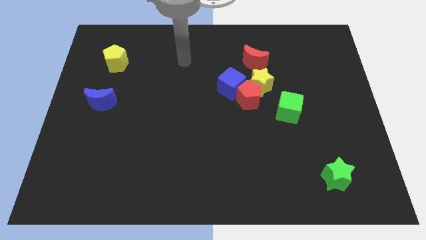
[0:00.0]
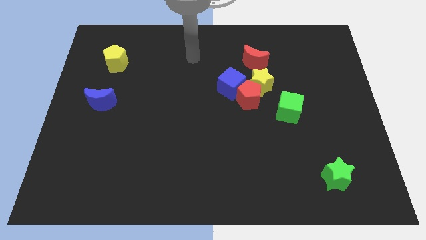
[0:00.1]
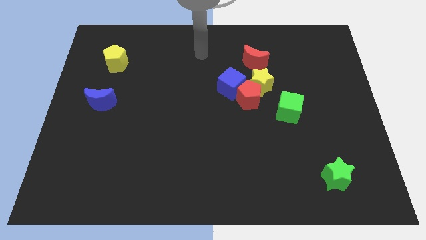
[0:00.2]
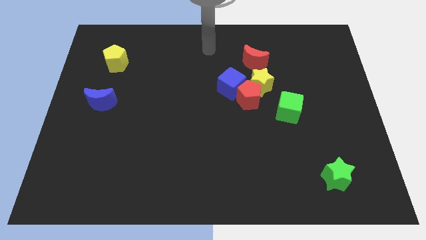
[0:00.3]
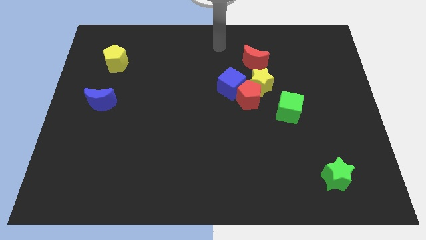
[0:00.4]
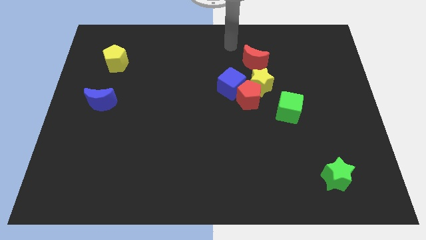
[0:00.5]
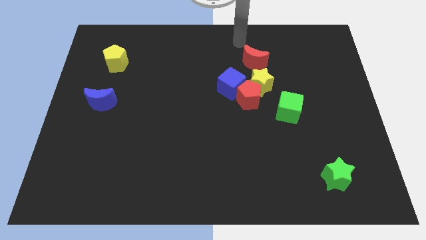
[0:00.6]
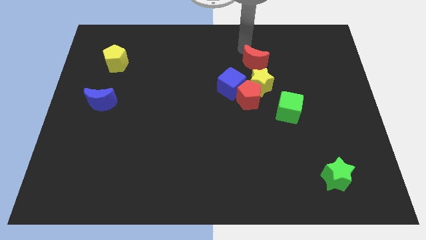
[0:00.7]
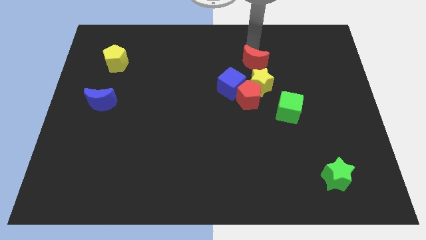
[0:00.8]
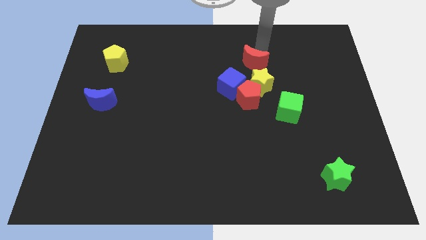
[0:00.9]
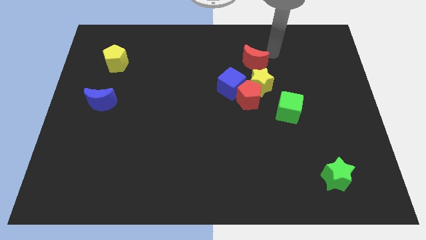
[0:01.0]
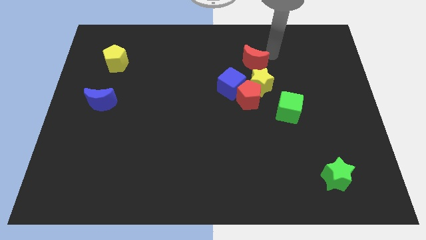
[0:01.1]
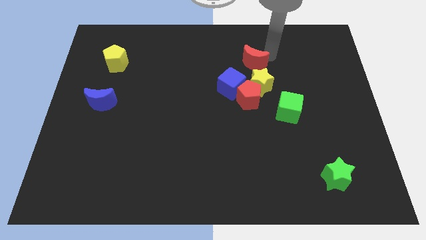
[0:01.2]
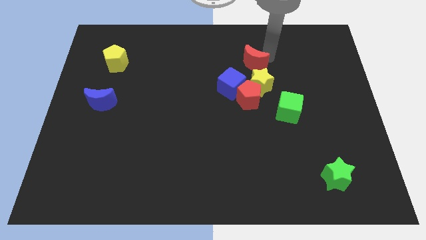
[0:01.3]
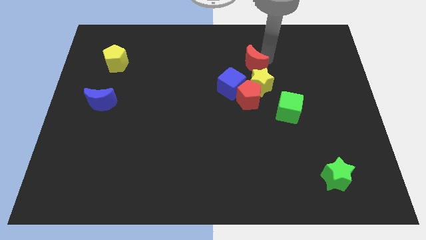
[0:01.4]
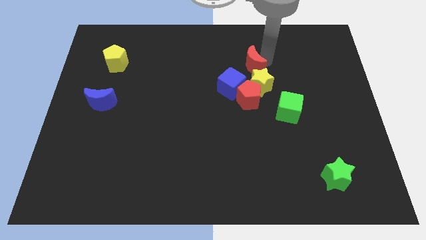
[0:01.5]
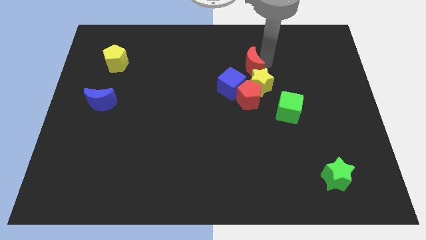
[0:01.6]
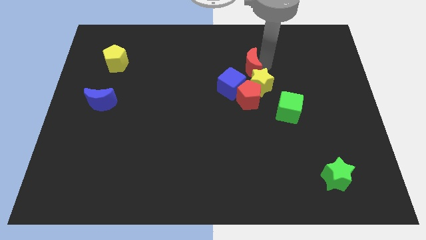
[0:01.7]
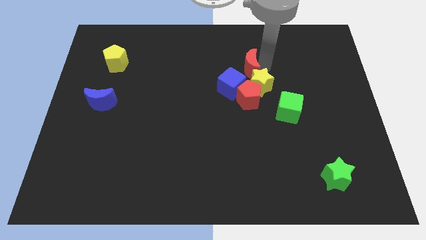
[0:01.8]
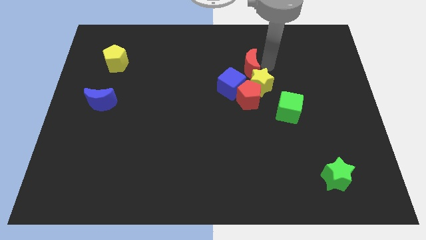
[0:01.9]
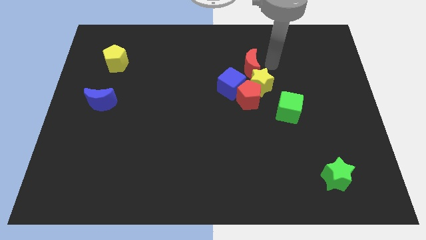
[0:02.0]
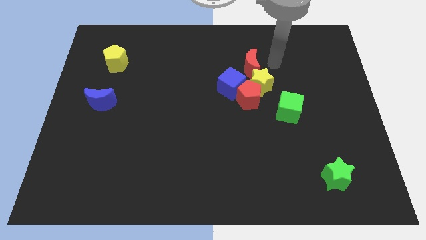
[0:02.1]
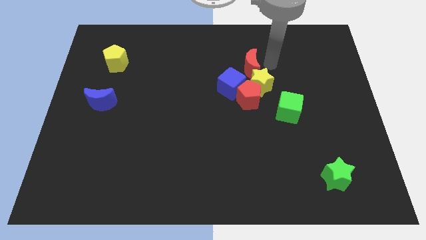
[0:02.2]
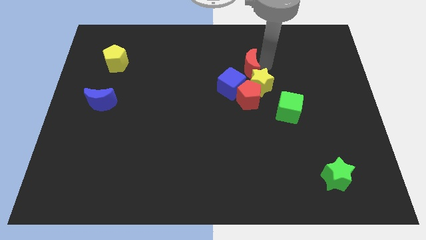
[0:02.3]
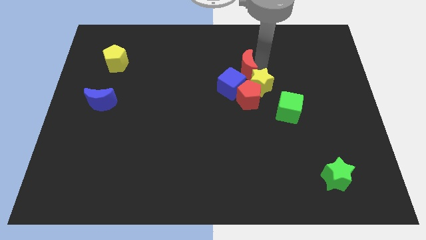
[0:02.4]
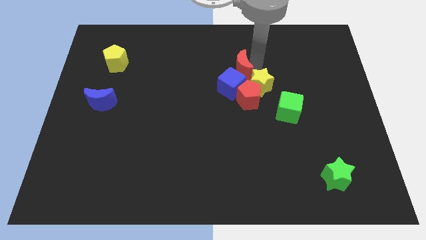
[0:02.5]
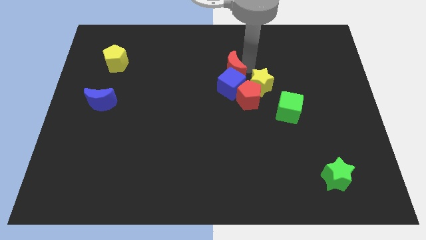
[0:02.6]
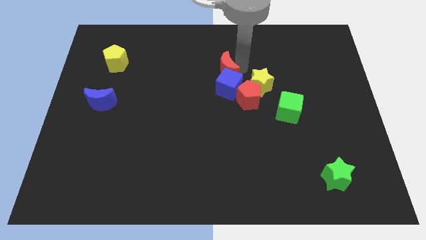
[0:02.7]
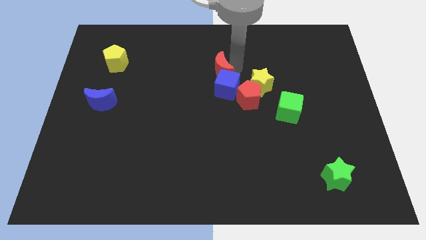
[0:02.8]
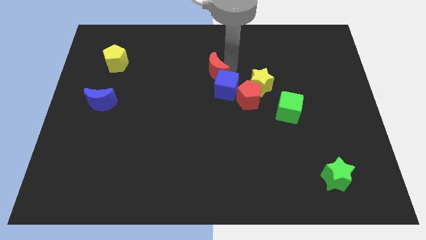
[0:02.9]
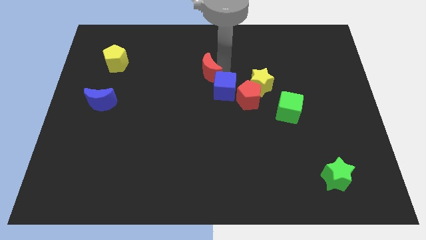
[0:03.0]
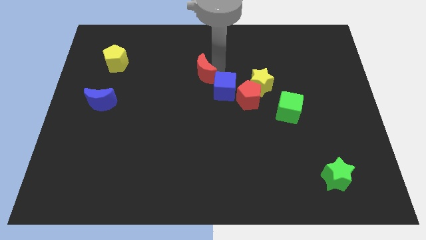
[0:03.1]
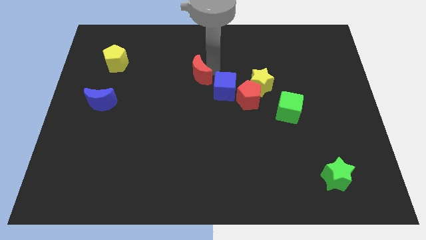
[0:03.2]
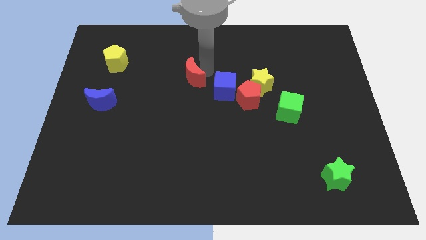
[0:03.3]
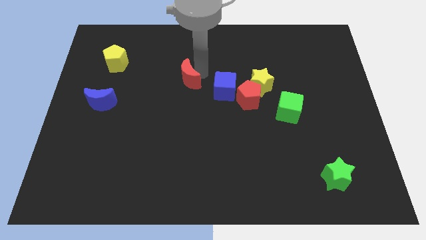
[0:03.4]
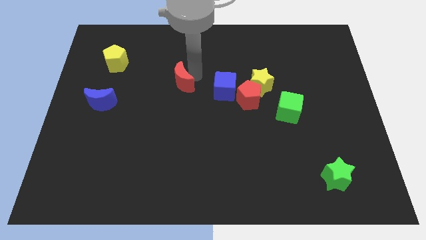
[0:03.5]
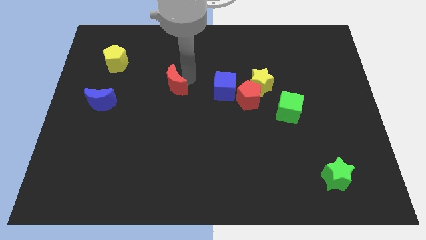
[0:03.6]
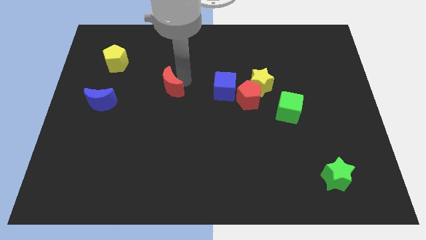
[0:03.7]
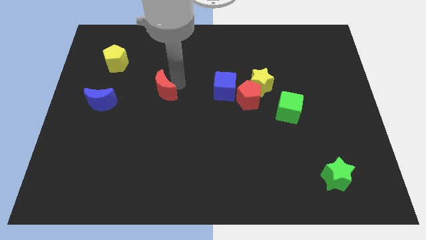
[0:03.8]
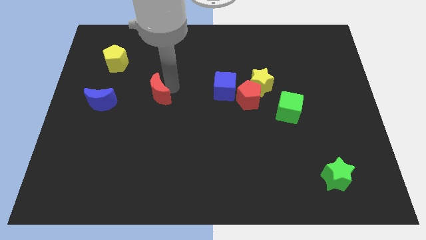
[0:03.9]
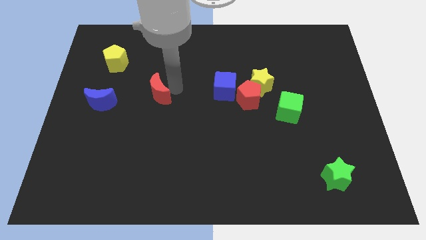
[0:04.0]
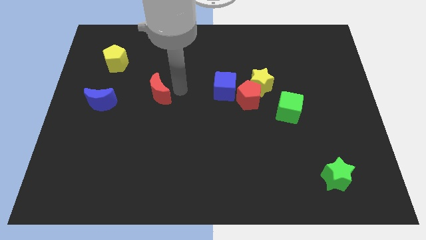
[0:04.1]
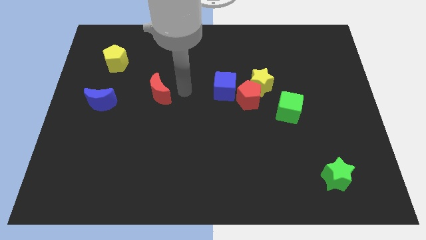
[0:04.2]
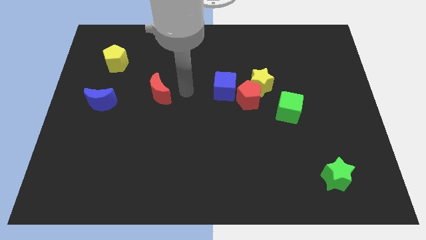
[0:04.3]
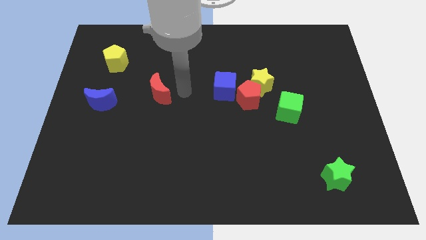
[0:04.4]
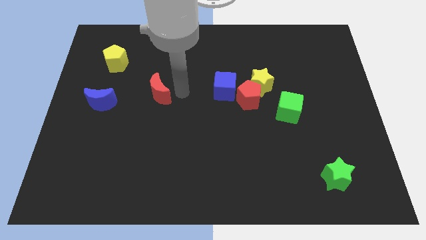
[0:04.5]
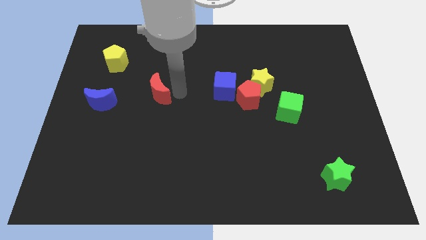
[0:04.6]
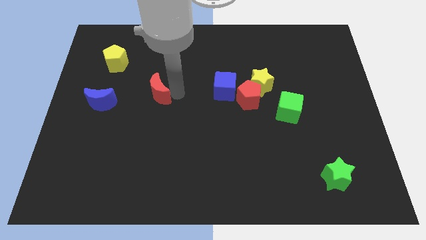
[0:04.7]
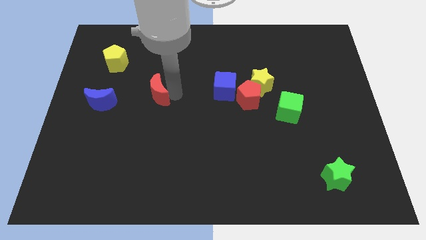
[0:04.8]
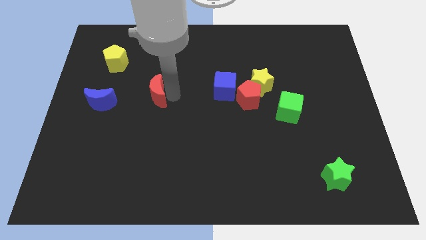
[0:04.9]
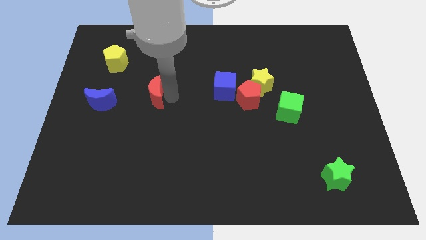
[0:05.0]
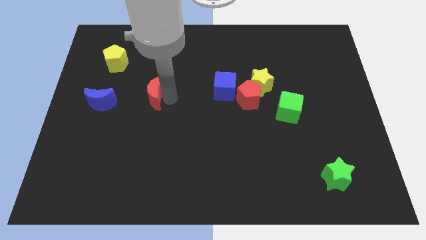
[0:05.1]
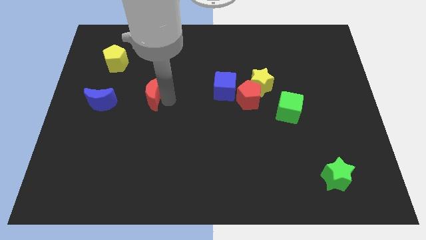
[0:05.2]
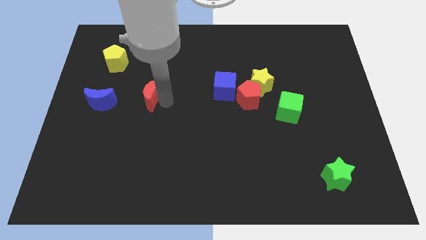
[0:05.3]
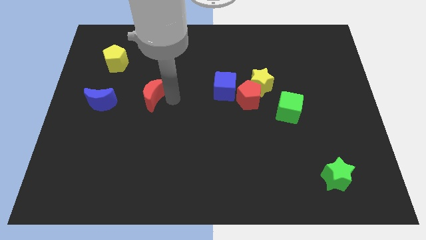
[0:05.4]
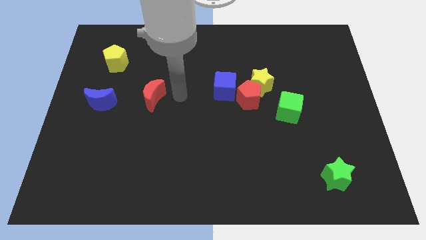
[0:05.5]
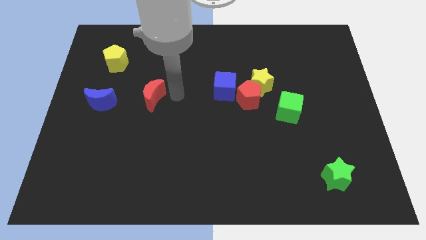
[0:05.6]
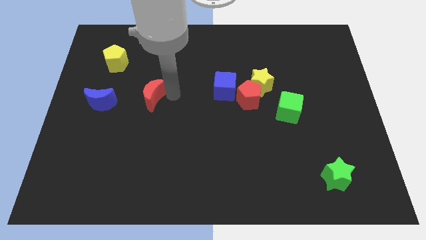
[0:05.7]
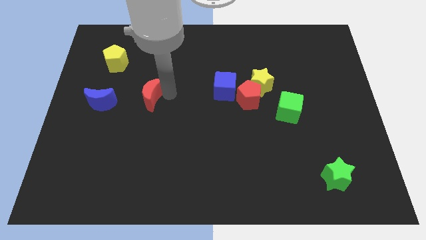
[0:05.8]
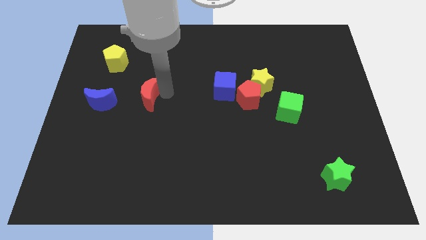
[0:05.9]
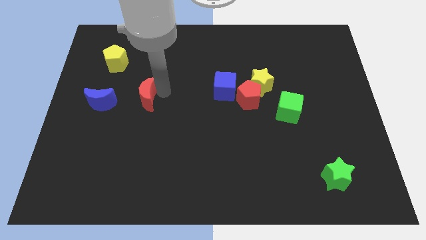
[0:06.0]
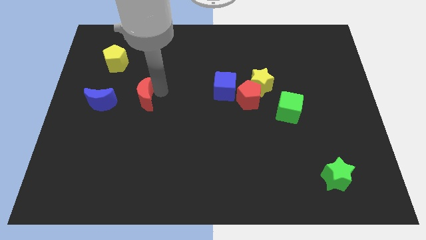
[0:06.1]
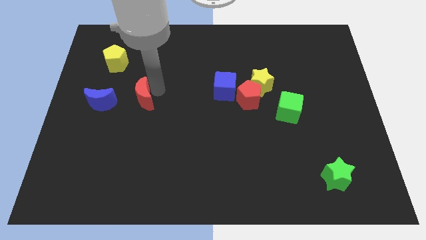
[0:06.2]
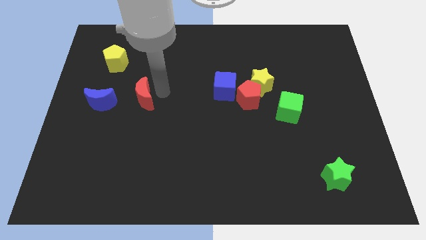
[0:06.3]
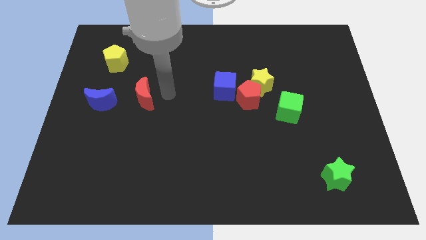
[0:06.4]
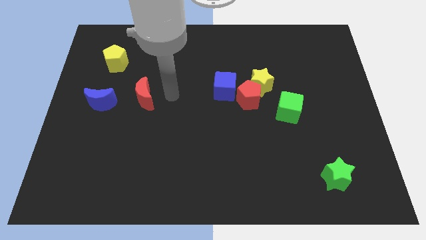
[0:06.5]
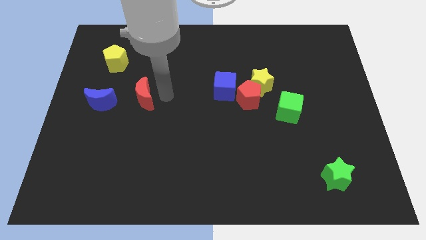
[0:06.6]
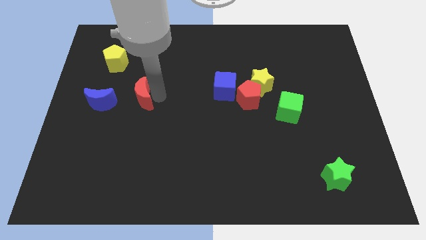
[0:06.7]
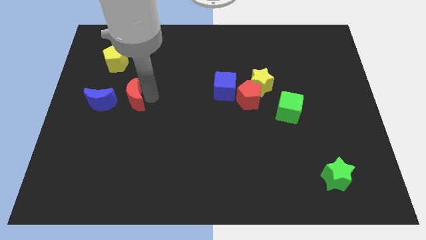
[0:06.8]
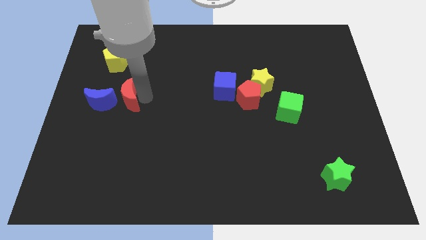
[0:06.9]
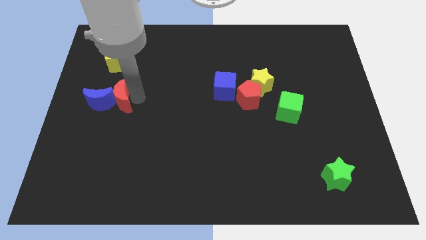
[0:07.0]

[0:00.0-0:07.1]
move the red moon close to the blue moon
